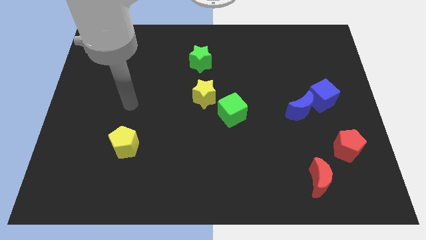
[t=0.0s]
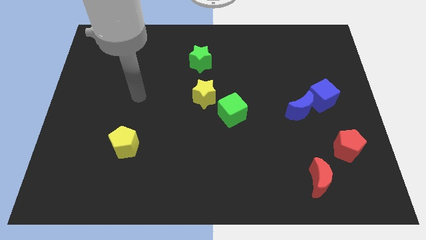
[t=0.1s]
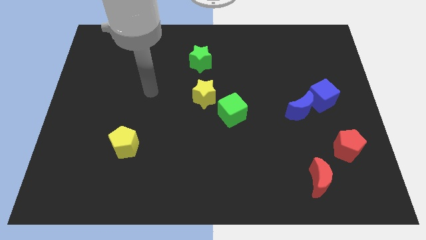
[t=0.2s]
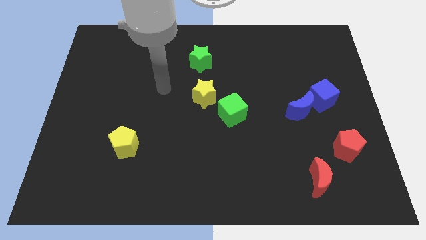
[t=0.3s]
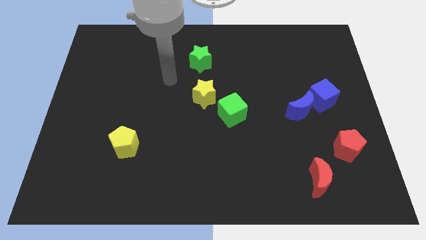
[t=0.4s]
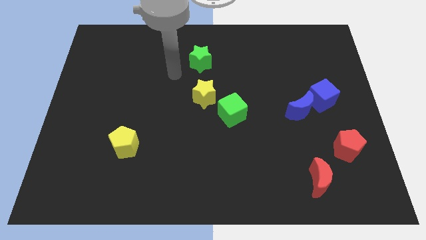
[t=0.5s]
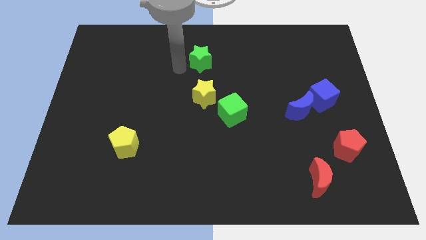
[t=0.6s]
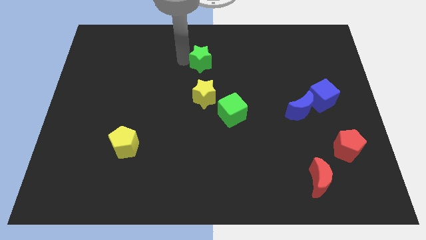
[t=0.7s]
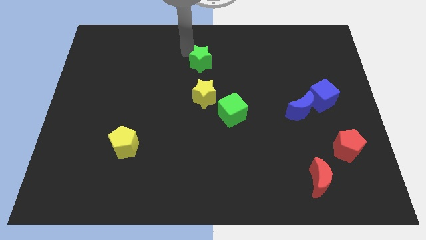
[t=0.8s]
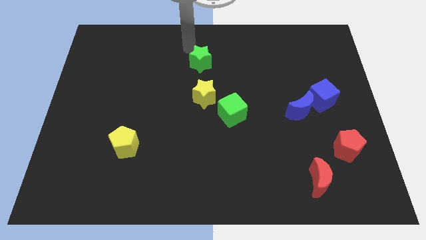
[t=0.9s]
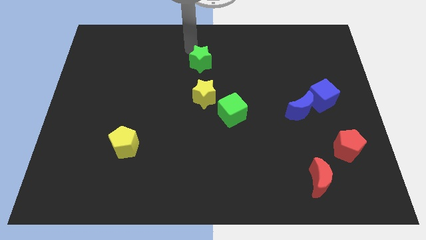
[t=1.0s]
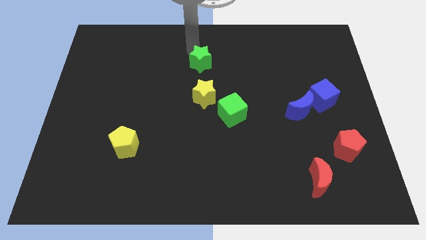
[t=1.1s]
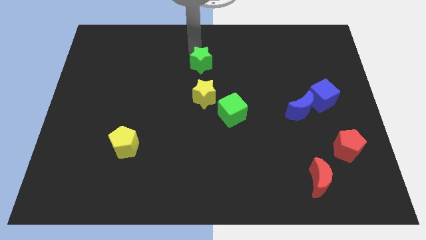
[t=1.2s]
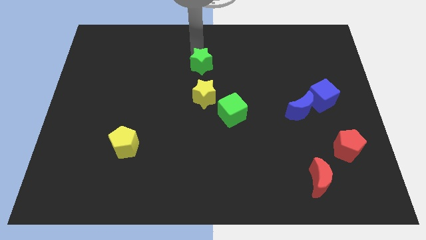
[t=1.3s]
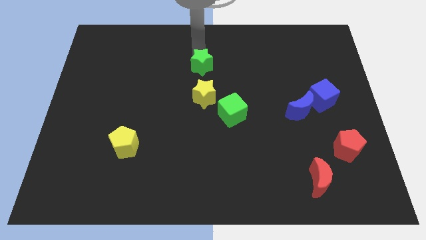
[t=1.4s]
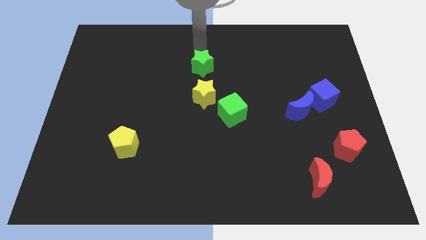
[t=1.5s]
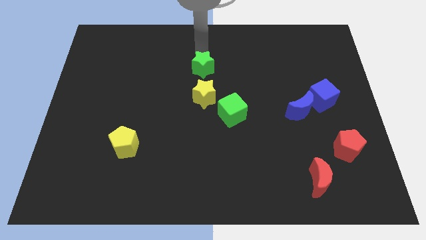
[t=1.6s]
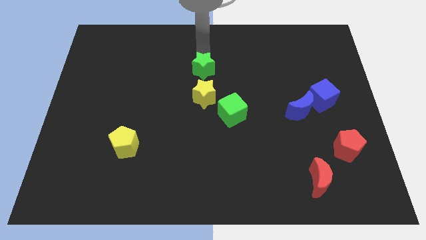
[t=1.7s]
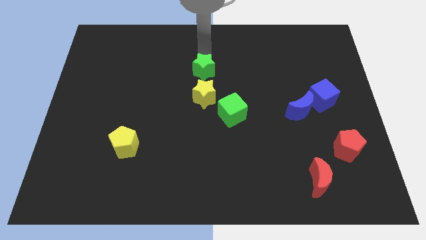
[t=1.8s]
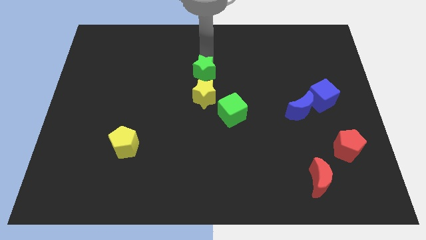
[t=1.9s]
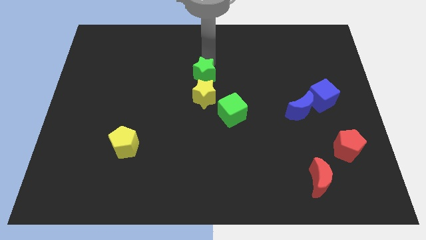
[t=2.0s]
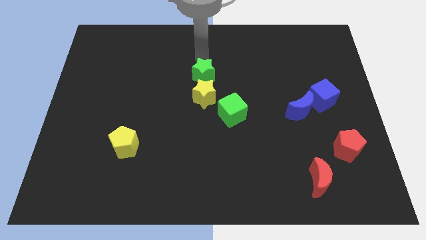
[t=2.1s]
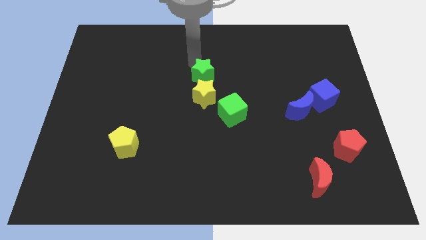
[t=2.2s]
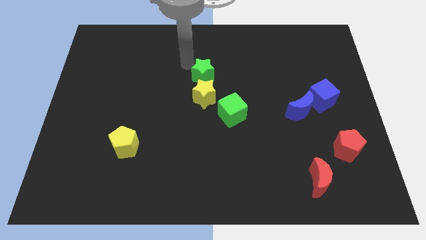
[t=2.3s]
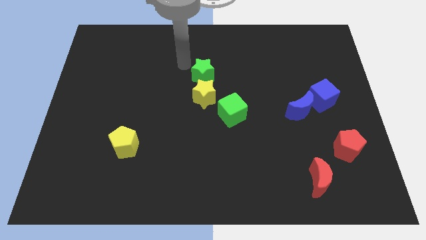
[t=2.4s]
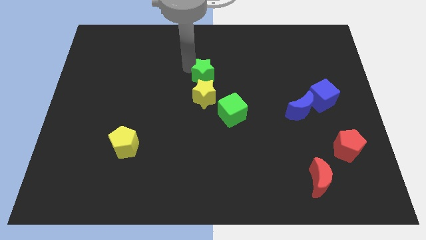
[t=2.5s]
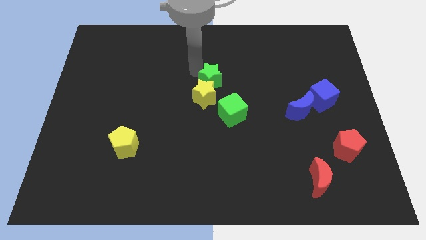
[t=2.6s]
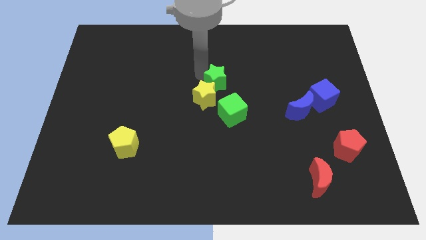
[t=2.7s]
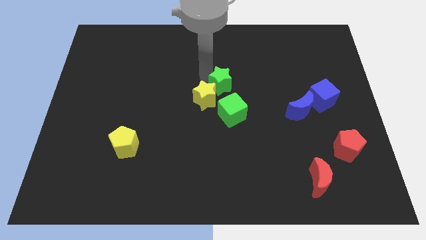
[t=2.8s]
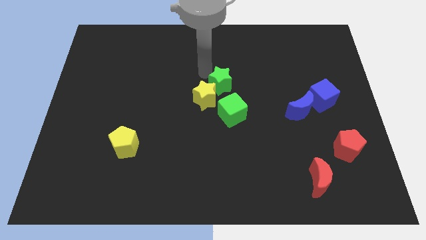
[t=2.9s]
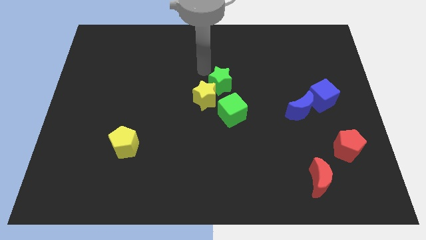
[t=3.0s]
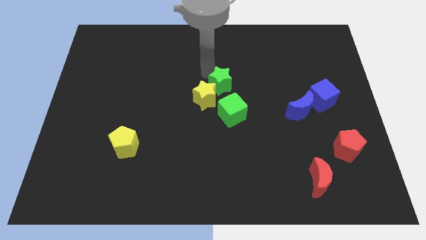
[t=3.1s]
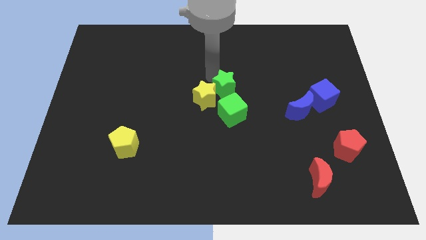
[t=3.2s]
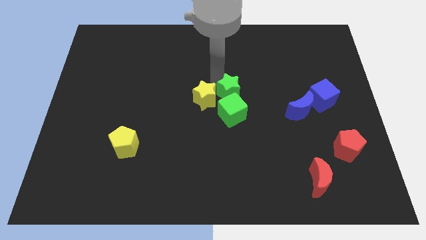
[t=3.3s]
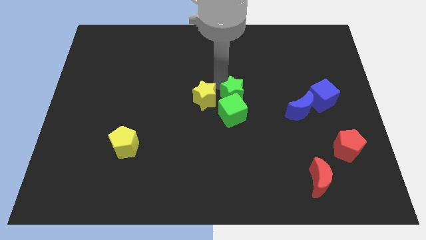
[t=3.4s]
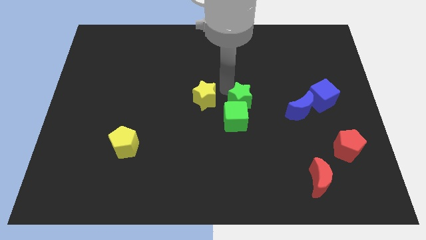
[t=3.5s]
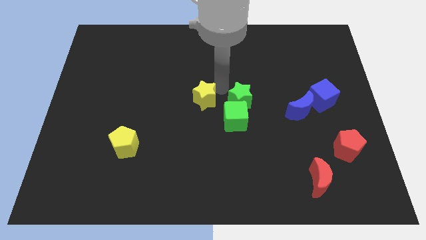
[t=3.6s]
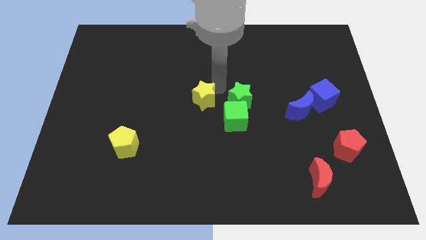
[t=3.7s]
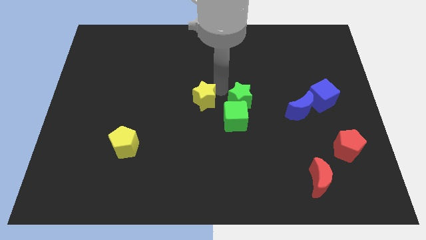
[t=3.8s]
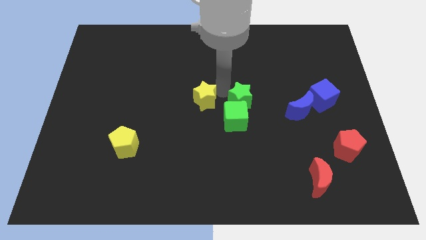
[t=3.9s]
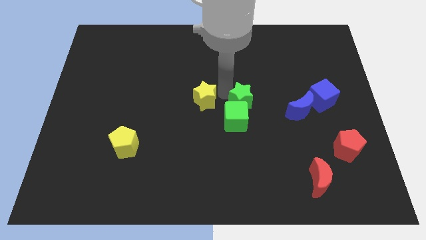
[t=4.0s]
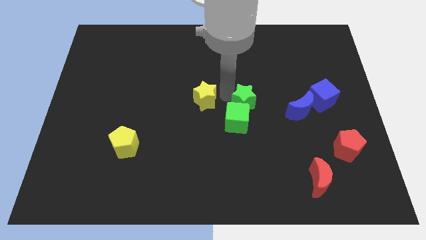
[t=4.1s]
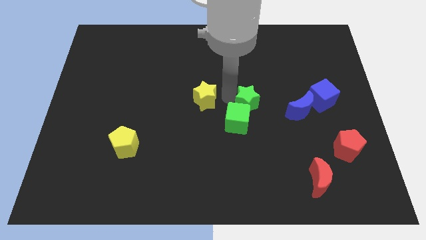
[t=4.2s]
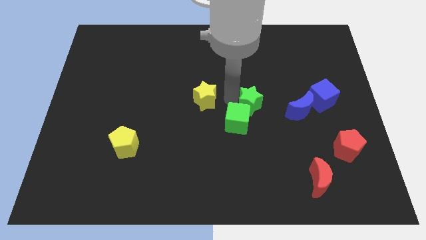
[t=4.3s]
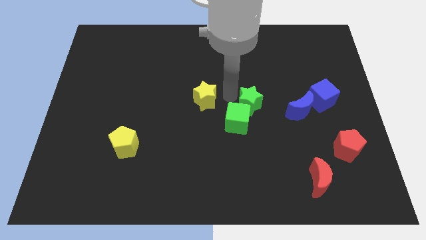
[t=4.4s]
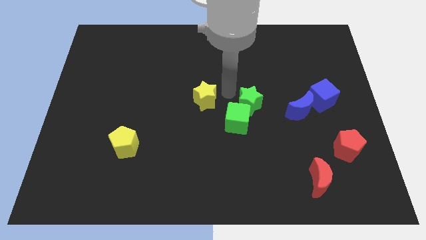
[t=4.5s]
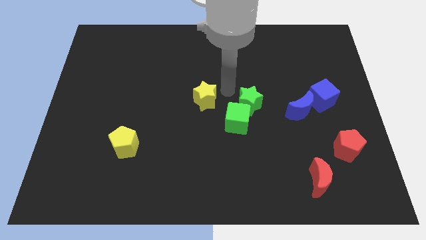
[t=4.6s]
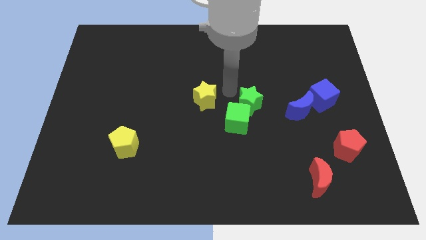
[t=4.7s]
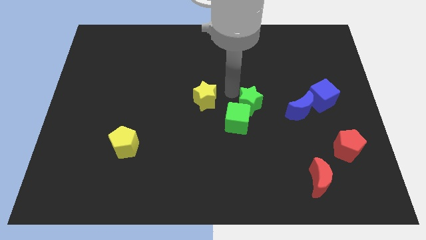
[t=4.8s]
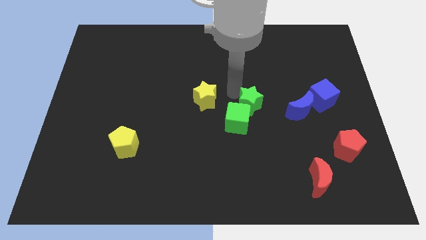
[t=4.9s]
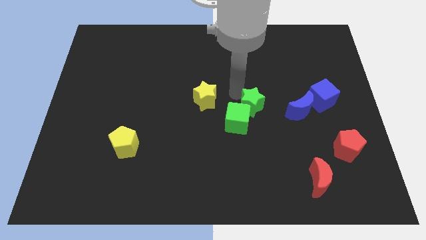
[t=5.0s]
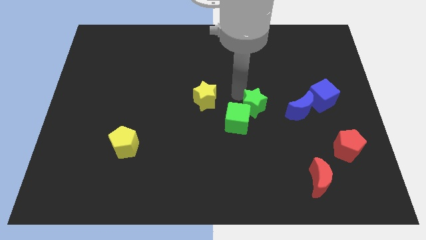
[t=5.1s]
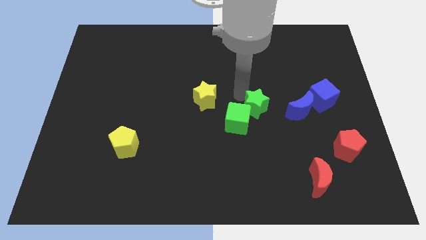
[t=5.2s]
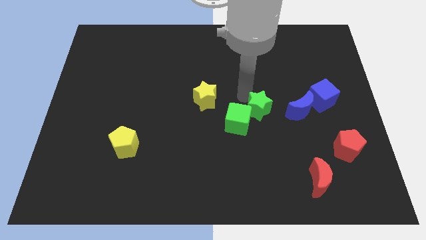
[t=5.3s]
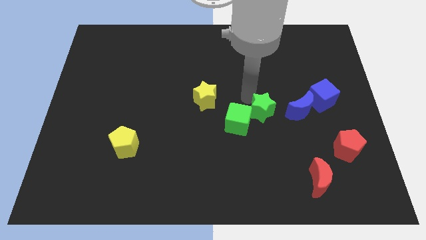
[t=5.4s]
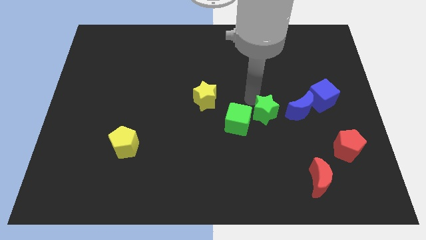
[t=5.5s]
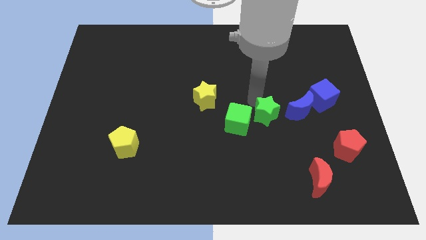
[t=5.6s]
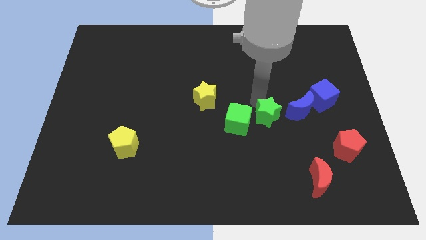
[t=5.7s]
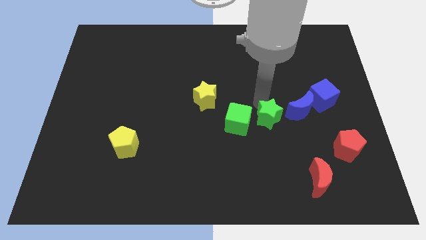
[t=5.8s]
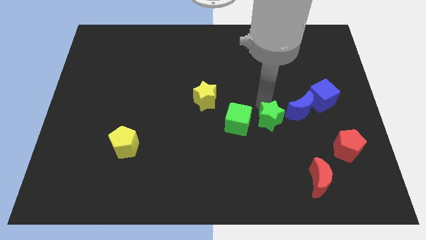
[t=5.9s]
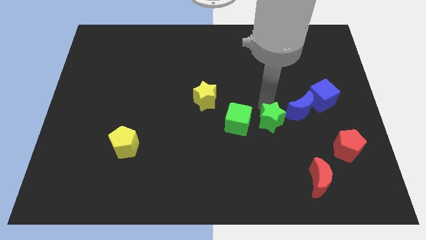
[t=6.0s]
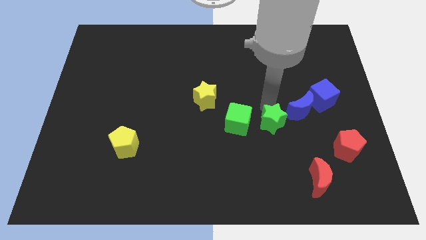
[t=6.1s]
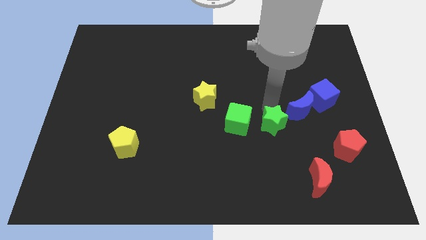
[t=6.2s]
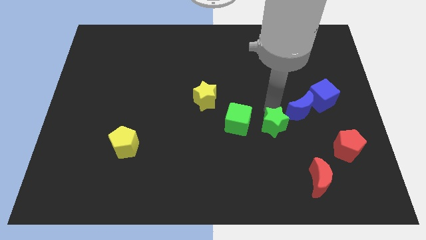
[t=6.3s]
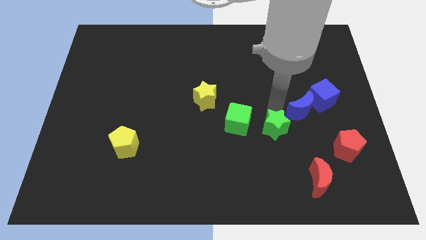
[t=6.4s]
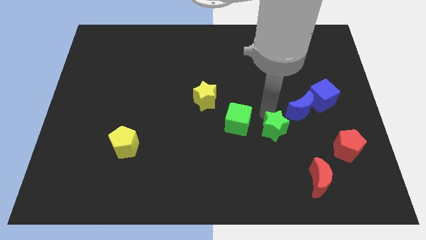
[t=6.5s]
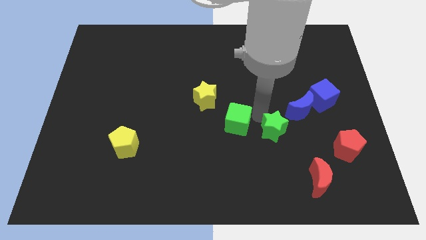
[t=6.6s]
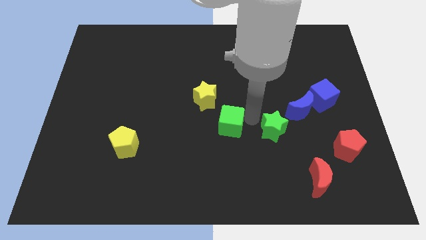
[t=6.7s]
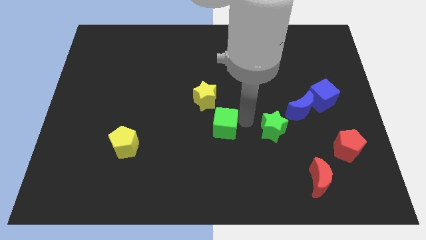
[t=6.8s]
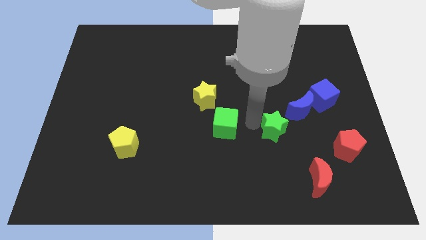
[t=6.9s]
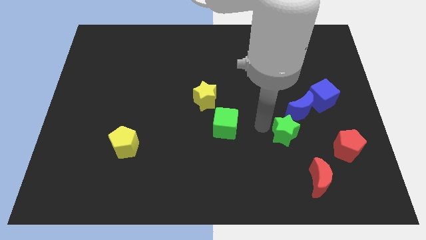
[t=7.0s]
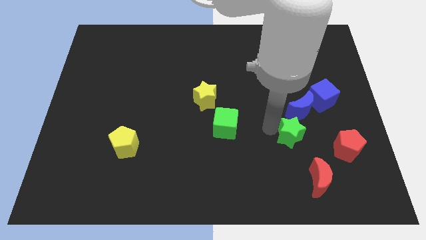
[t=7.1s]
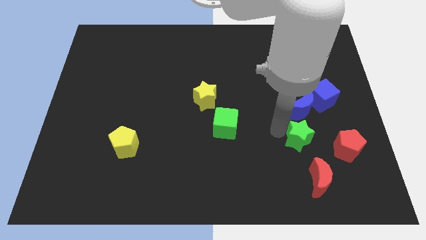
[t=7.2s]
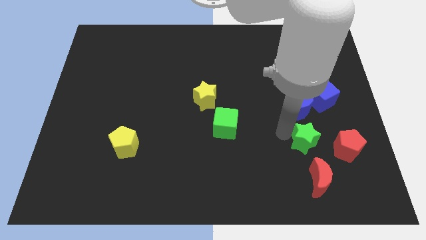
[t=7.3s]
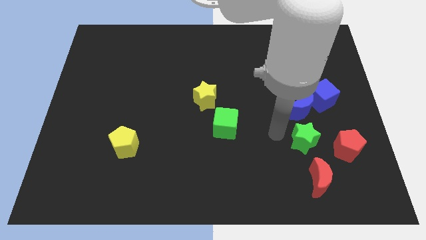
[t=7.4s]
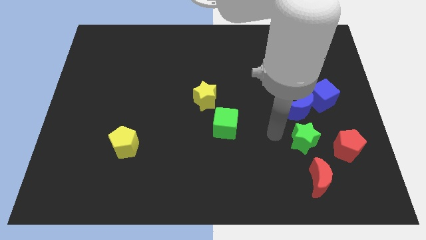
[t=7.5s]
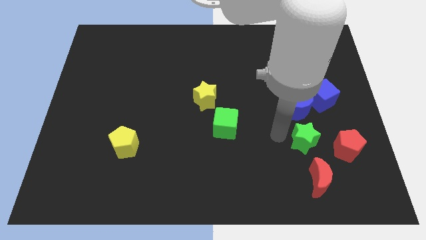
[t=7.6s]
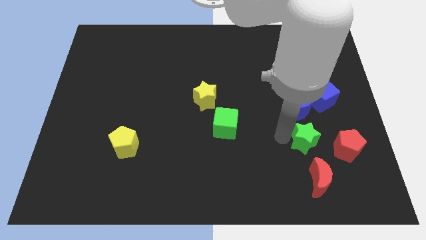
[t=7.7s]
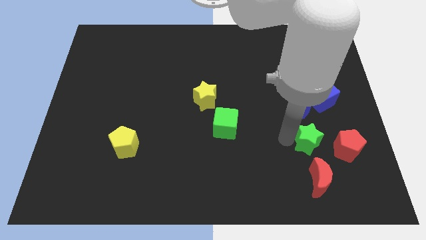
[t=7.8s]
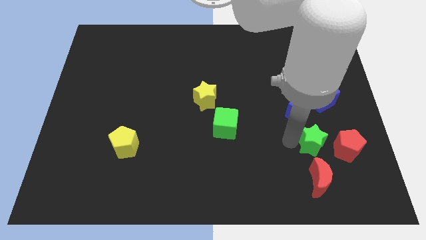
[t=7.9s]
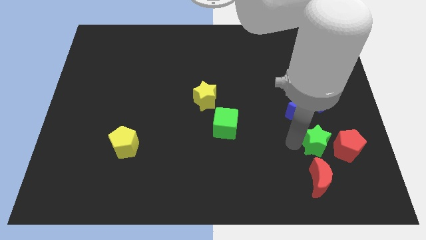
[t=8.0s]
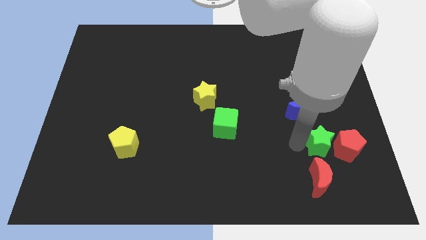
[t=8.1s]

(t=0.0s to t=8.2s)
slide the green star next to the red pentagon
